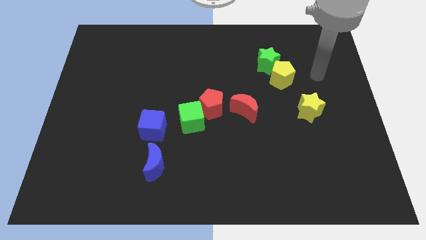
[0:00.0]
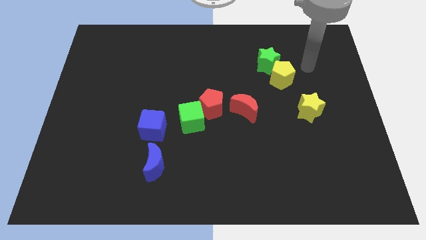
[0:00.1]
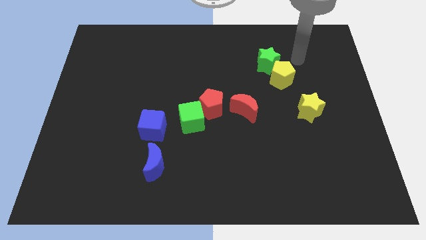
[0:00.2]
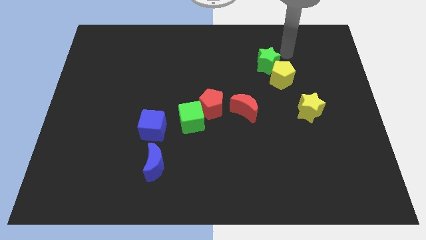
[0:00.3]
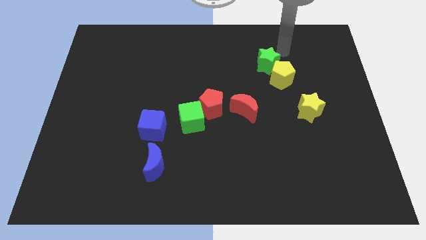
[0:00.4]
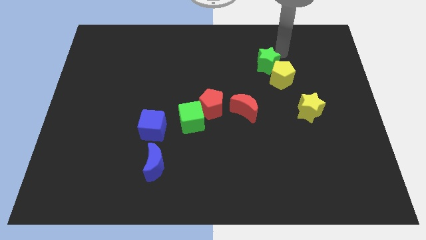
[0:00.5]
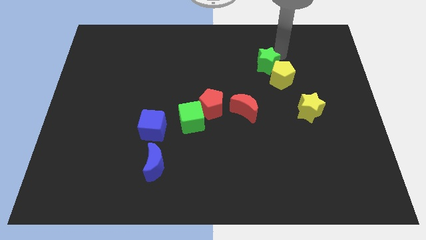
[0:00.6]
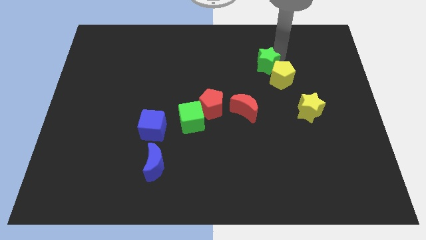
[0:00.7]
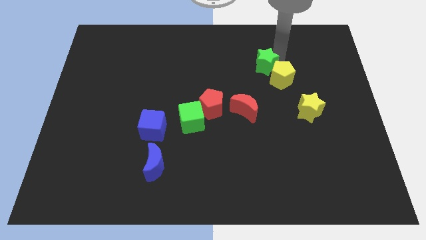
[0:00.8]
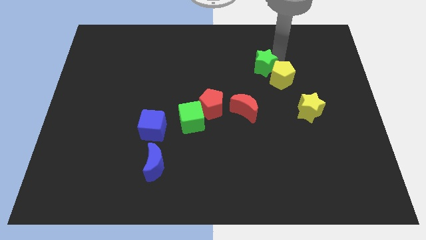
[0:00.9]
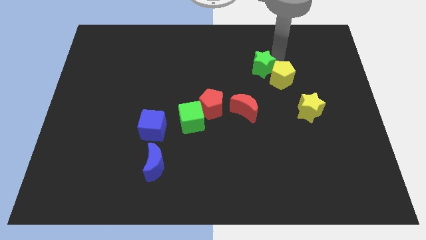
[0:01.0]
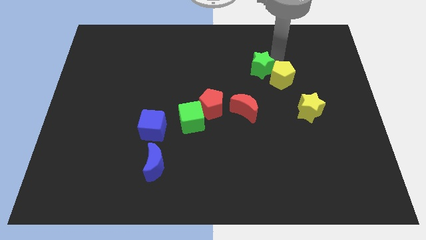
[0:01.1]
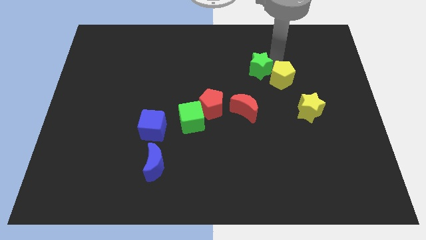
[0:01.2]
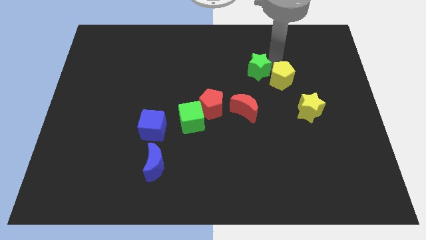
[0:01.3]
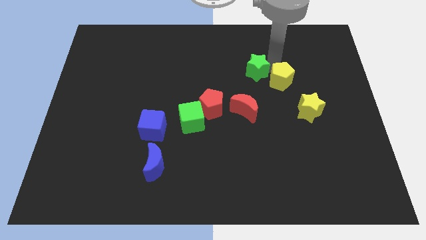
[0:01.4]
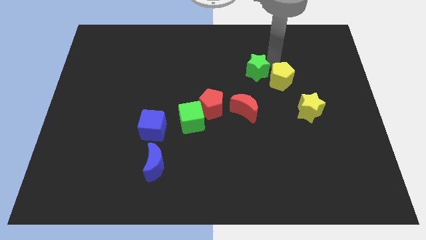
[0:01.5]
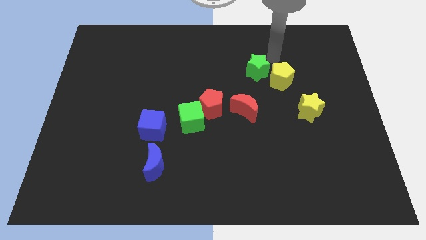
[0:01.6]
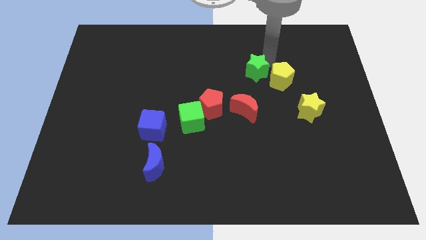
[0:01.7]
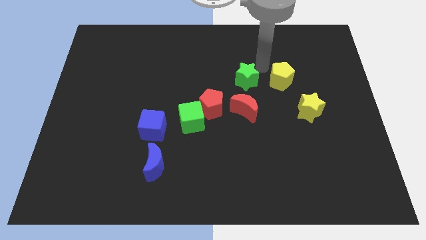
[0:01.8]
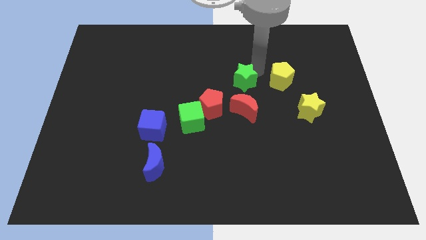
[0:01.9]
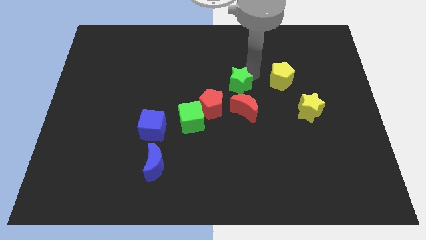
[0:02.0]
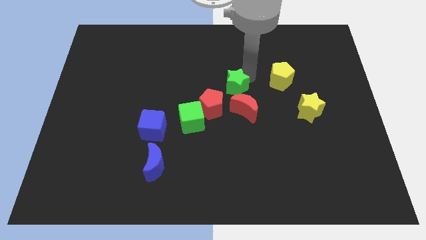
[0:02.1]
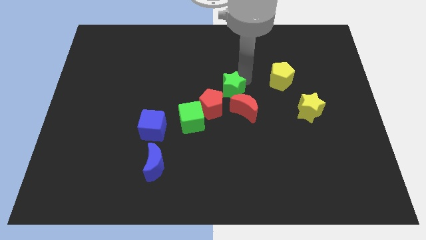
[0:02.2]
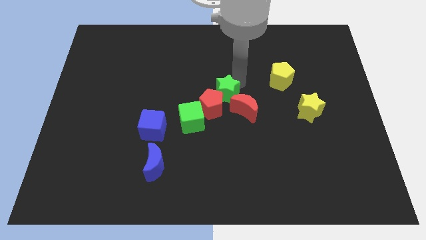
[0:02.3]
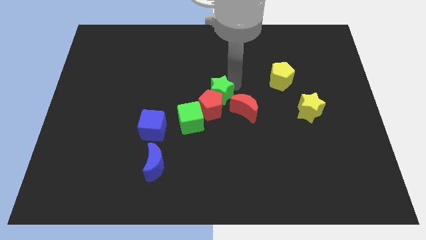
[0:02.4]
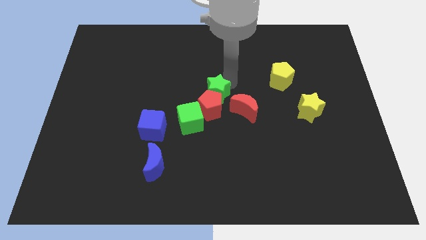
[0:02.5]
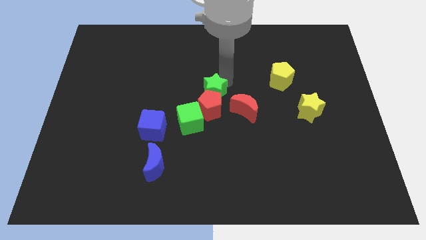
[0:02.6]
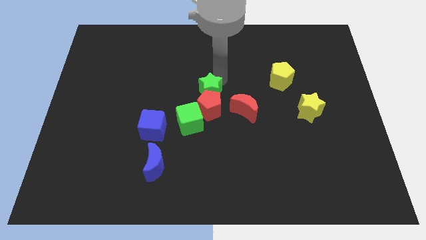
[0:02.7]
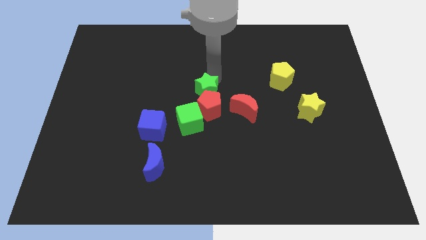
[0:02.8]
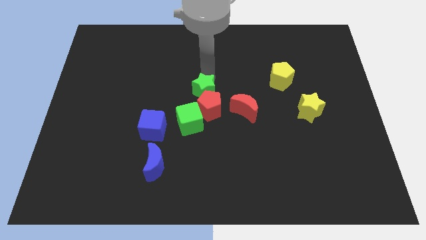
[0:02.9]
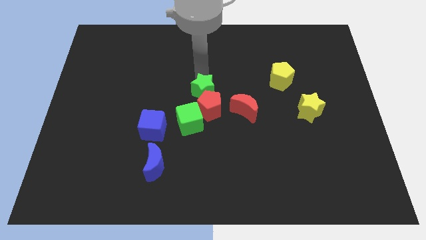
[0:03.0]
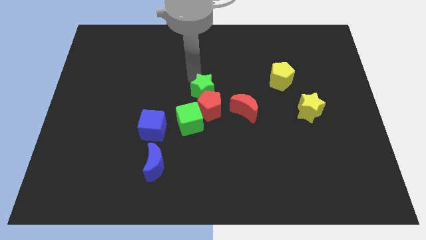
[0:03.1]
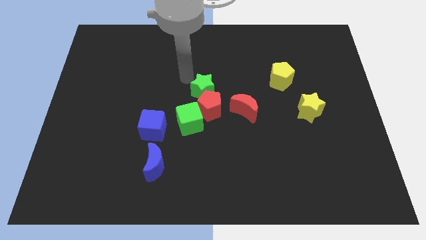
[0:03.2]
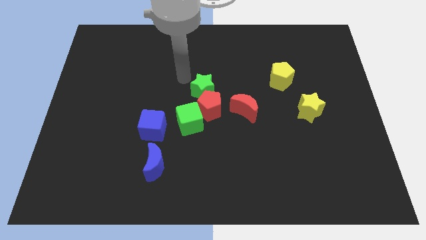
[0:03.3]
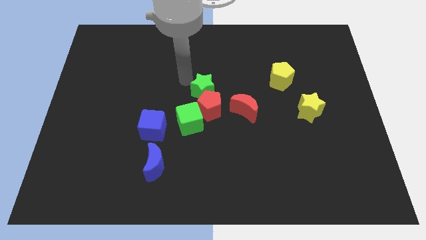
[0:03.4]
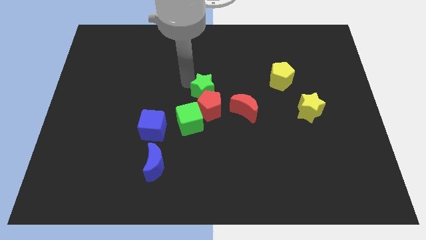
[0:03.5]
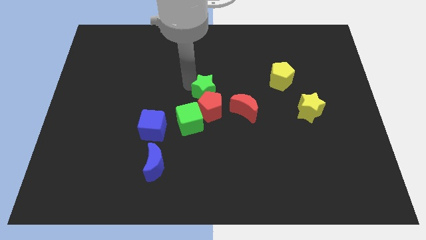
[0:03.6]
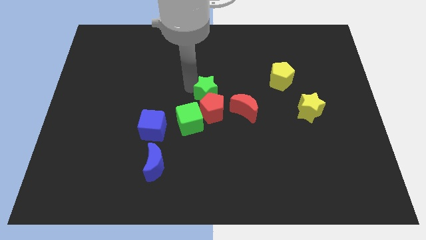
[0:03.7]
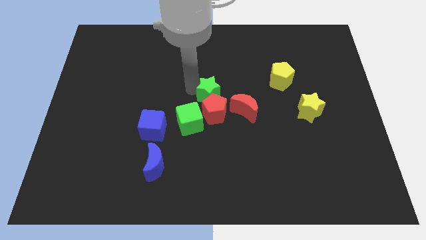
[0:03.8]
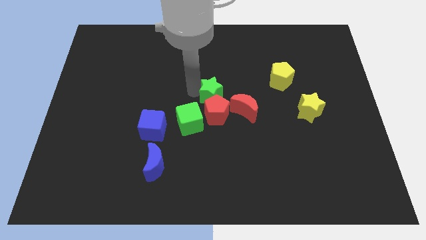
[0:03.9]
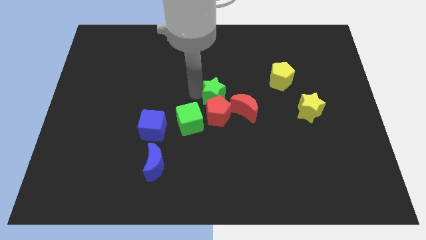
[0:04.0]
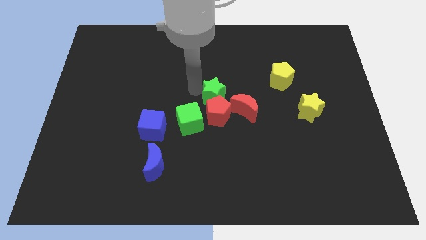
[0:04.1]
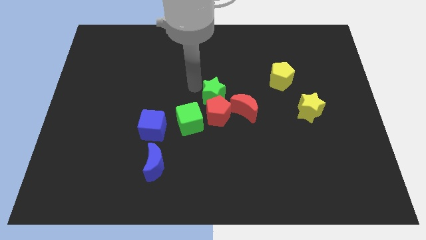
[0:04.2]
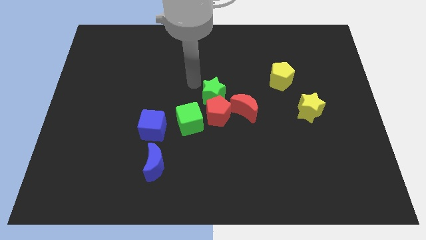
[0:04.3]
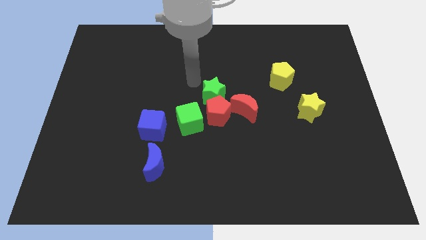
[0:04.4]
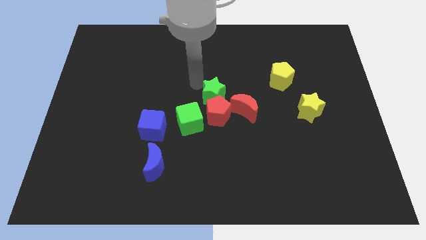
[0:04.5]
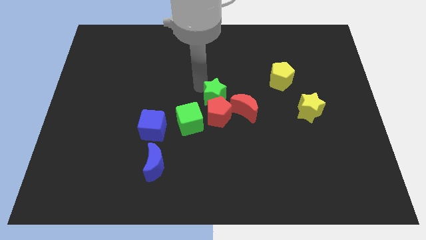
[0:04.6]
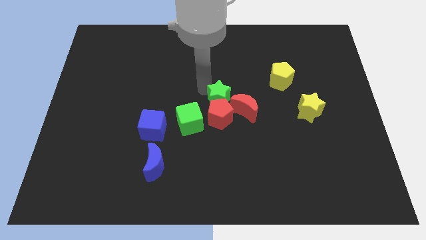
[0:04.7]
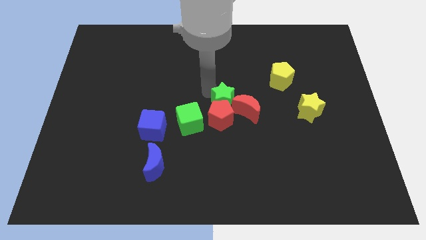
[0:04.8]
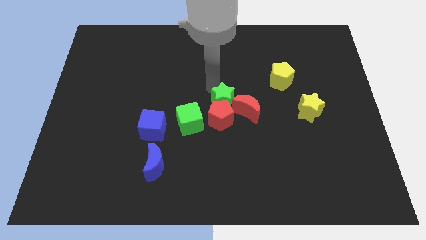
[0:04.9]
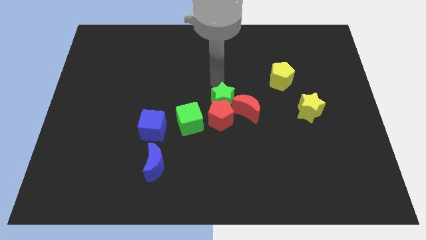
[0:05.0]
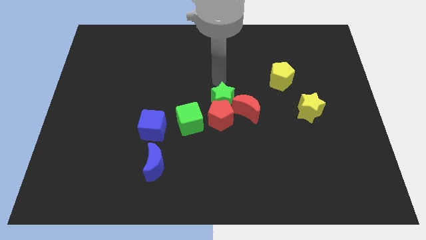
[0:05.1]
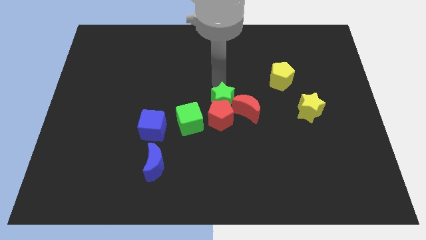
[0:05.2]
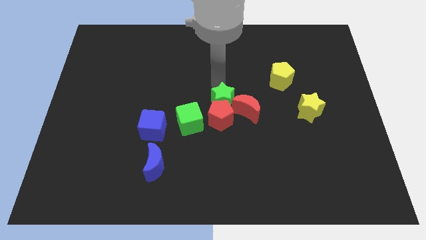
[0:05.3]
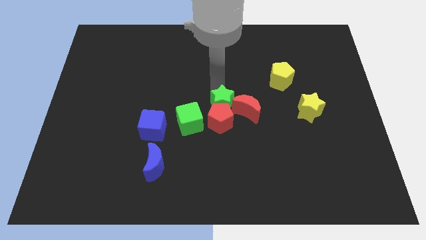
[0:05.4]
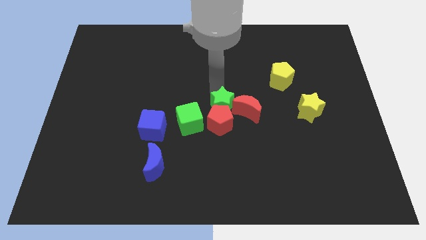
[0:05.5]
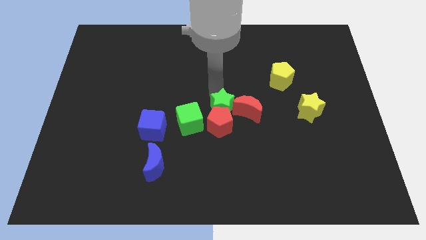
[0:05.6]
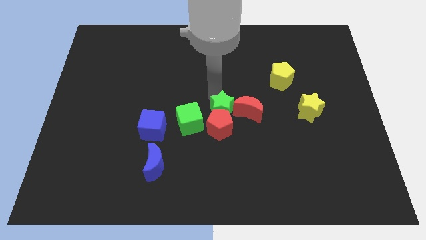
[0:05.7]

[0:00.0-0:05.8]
slide the green star diagonally down and to the left of the red moon

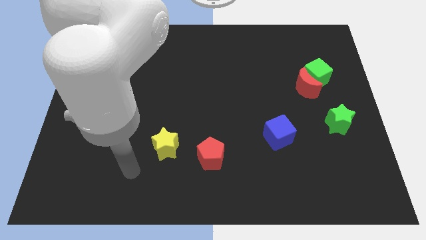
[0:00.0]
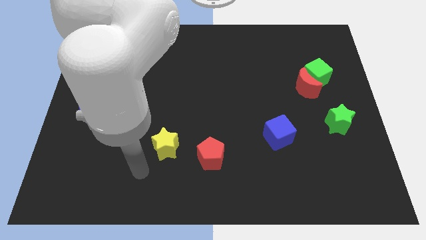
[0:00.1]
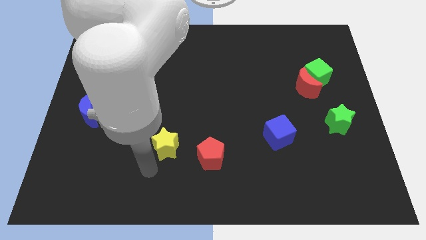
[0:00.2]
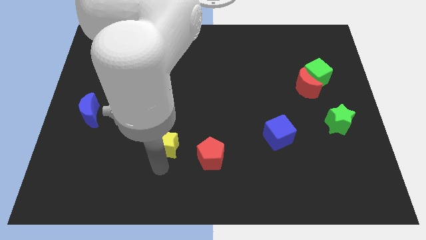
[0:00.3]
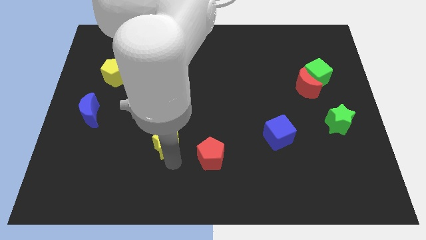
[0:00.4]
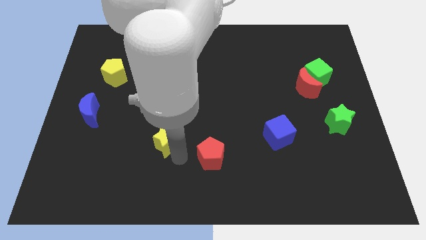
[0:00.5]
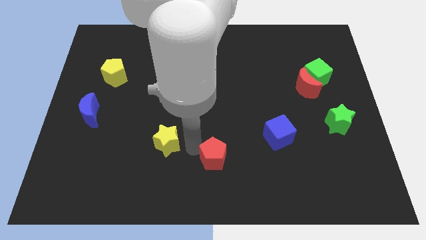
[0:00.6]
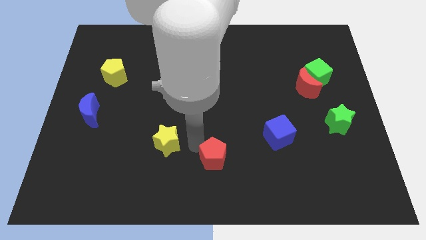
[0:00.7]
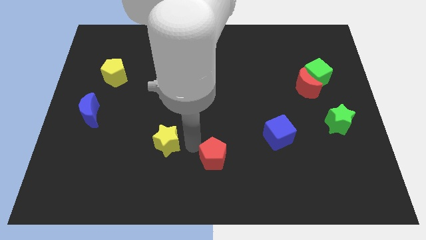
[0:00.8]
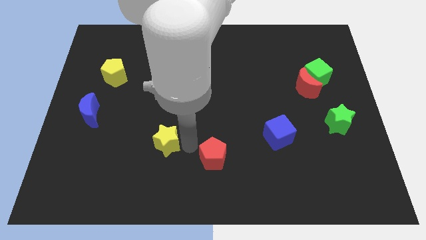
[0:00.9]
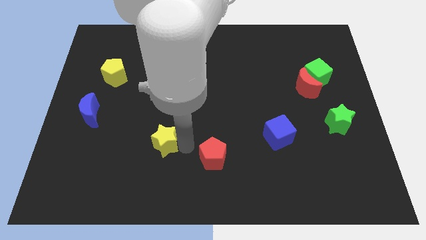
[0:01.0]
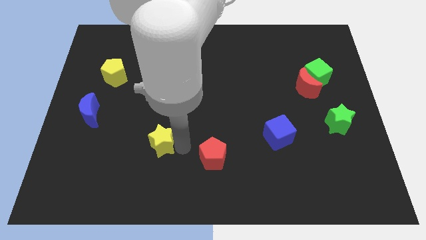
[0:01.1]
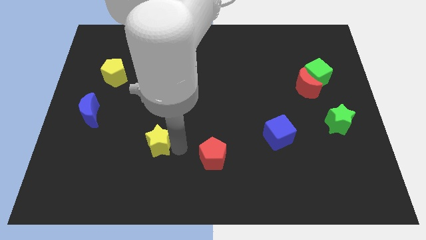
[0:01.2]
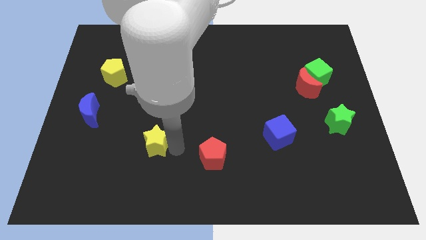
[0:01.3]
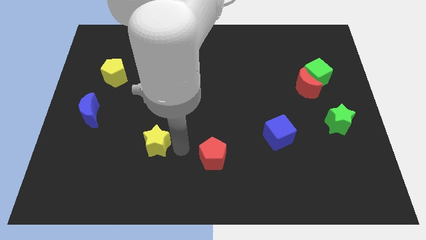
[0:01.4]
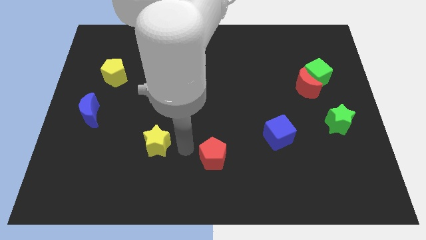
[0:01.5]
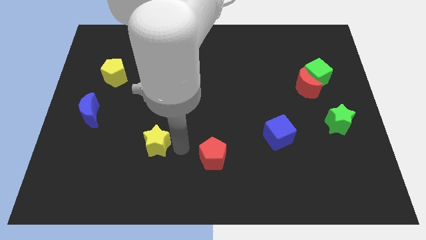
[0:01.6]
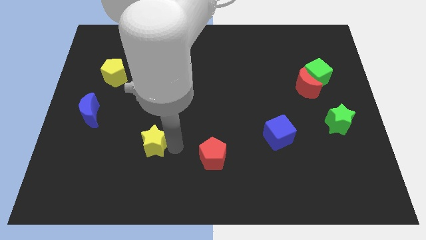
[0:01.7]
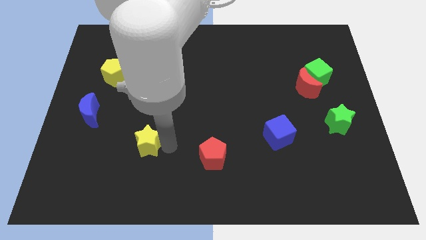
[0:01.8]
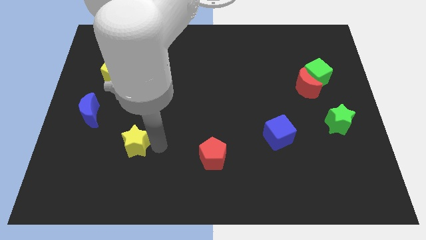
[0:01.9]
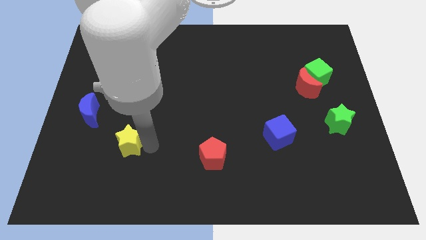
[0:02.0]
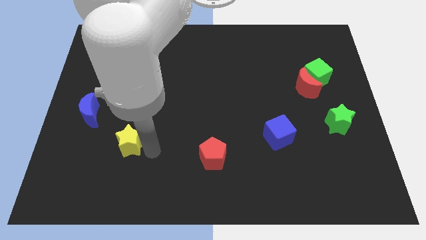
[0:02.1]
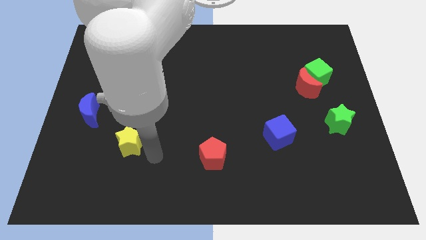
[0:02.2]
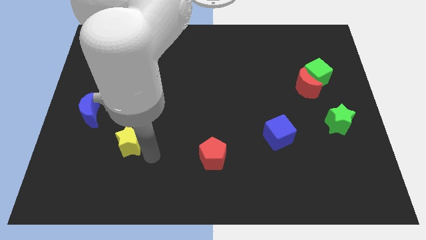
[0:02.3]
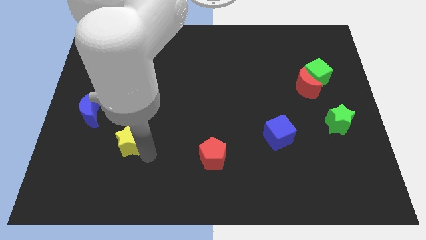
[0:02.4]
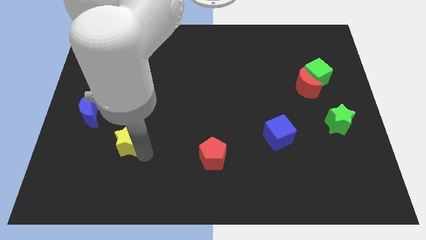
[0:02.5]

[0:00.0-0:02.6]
push the yellow star to the bottom right of the blue moon
